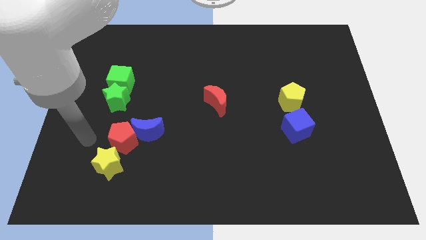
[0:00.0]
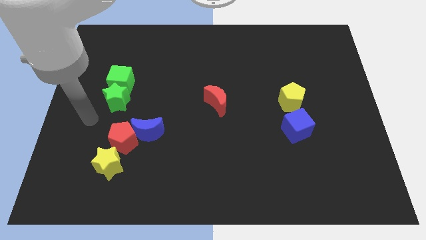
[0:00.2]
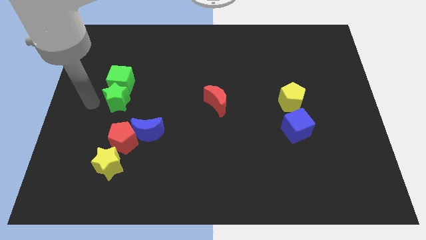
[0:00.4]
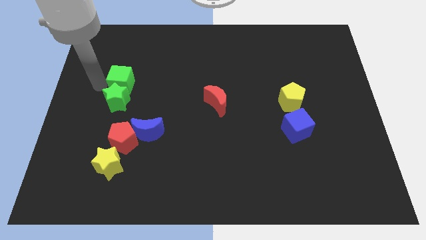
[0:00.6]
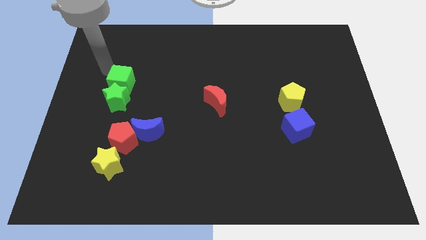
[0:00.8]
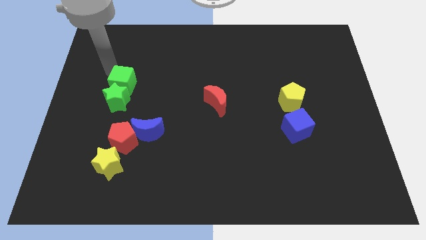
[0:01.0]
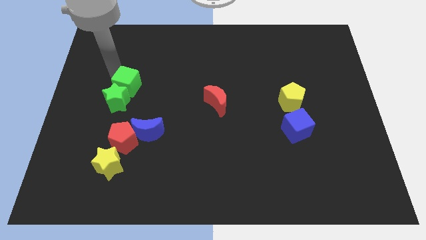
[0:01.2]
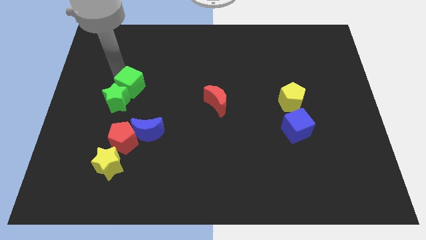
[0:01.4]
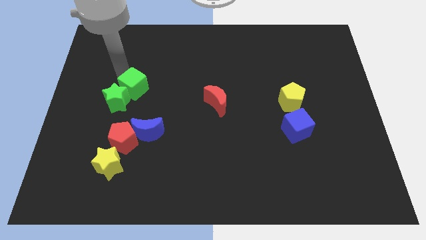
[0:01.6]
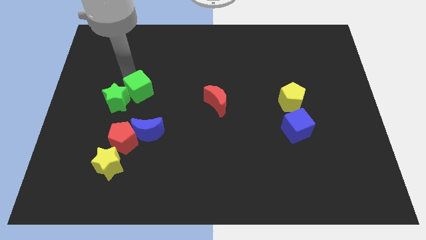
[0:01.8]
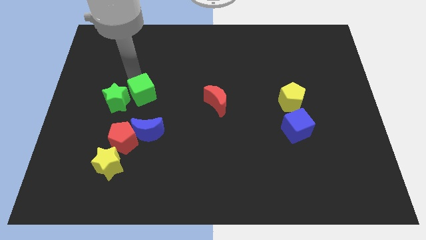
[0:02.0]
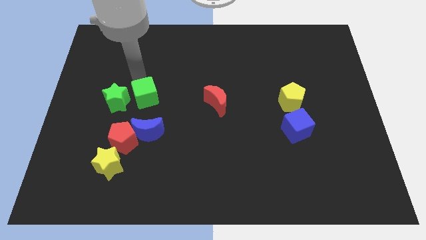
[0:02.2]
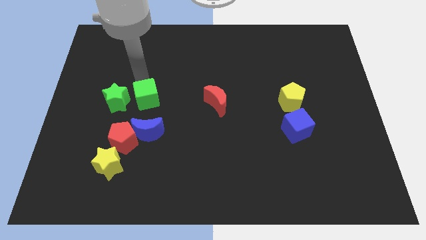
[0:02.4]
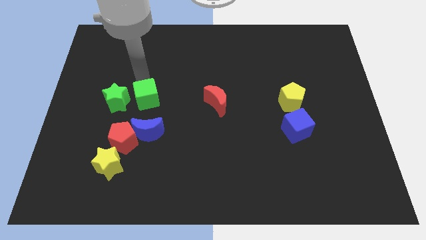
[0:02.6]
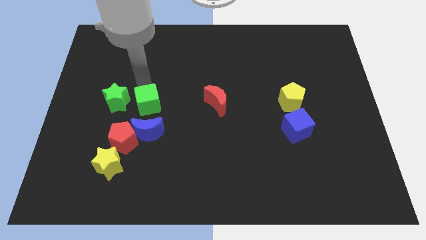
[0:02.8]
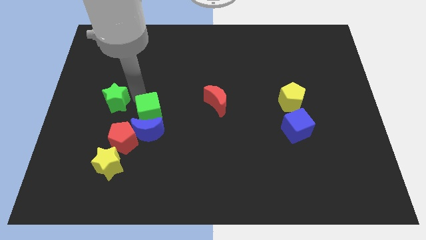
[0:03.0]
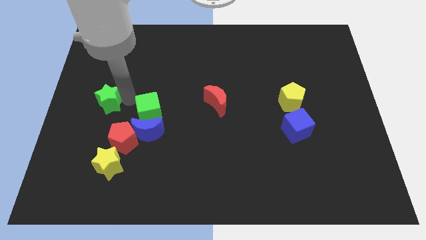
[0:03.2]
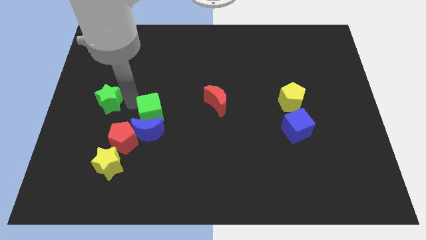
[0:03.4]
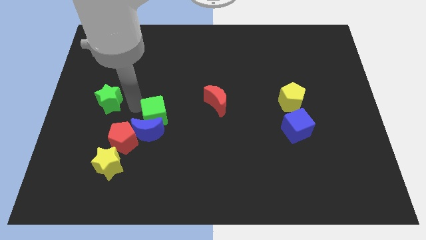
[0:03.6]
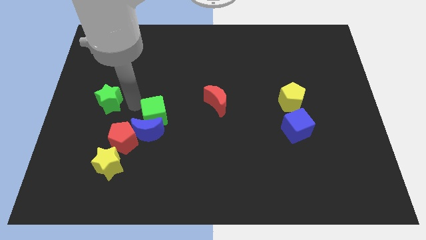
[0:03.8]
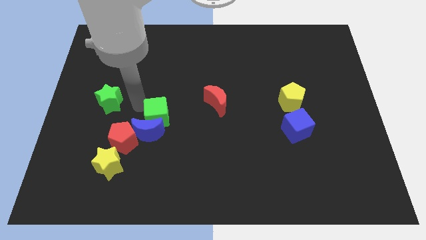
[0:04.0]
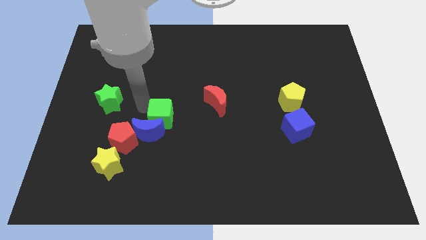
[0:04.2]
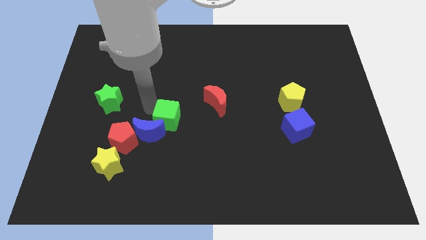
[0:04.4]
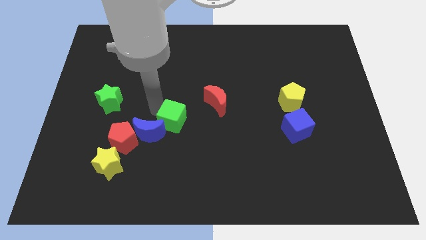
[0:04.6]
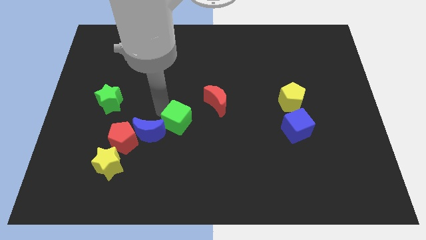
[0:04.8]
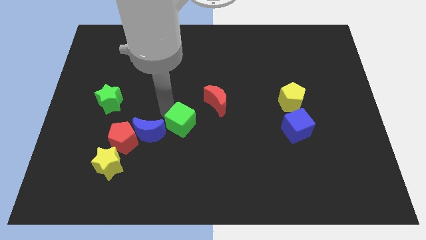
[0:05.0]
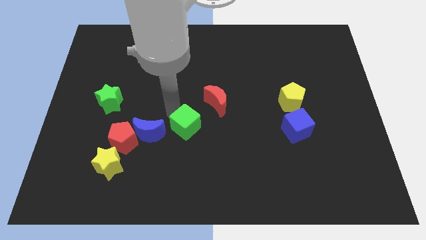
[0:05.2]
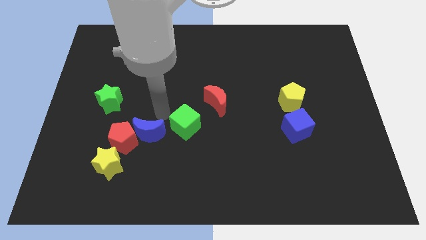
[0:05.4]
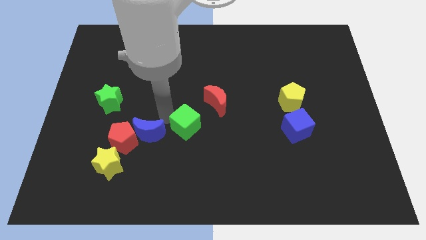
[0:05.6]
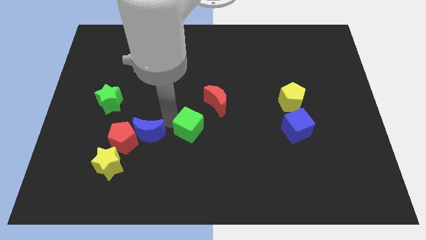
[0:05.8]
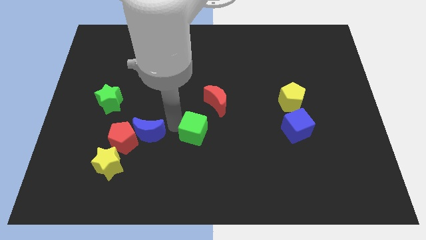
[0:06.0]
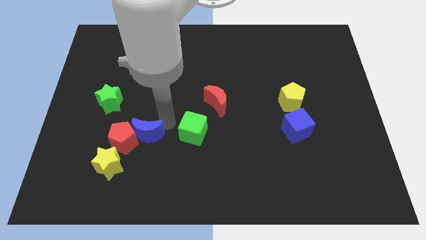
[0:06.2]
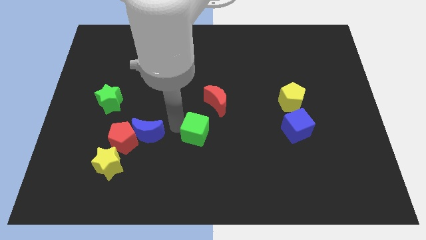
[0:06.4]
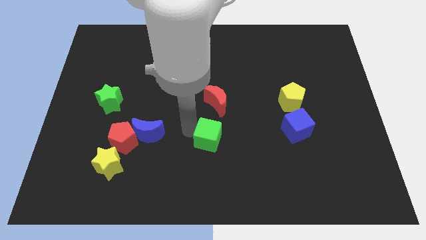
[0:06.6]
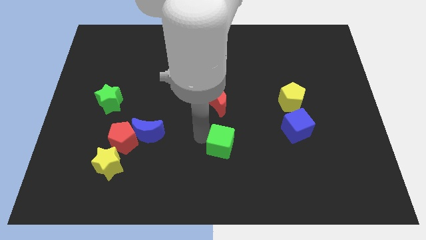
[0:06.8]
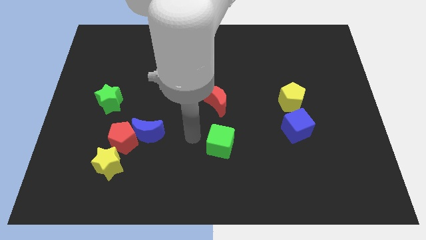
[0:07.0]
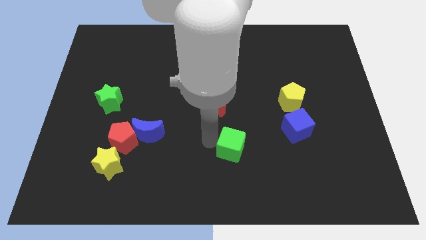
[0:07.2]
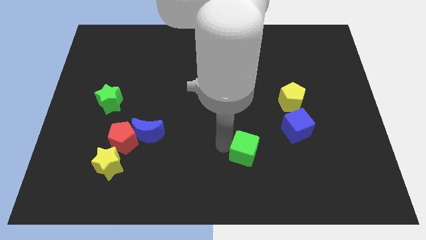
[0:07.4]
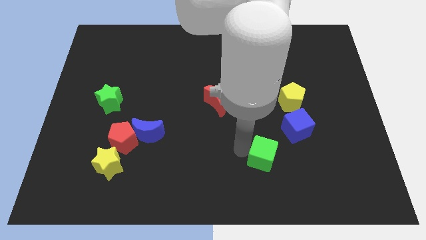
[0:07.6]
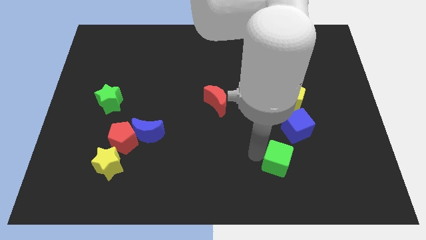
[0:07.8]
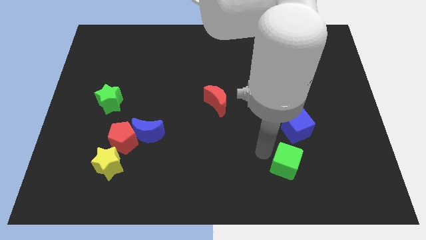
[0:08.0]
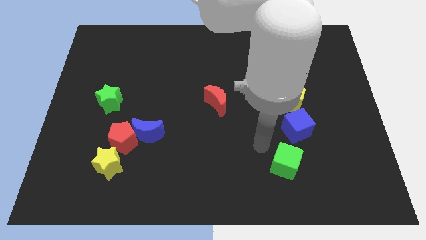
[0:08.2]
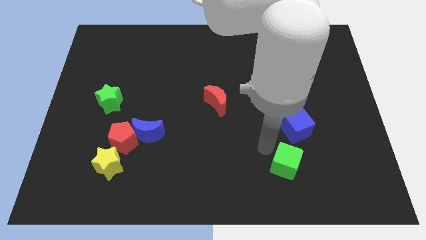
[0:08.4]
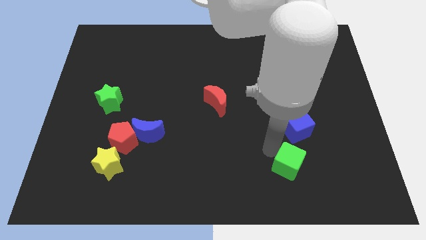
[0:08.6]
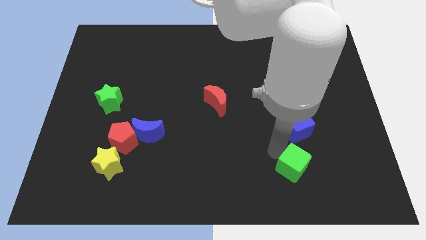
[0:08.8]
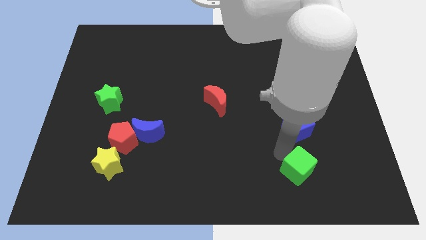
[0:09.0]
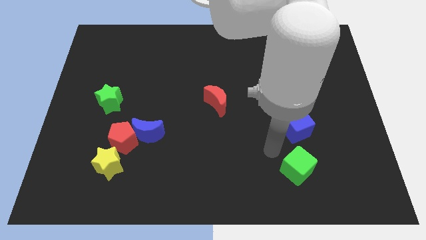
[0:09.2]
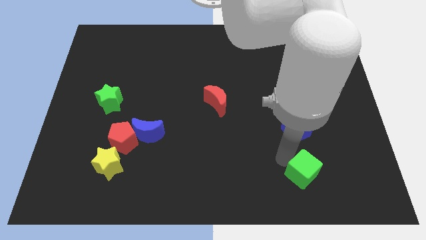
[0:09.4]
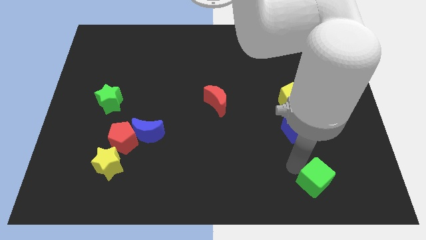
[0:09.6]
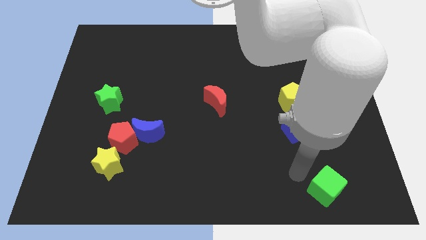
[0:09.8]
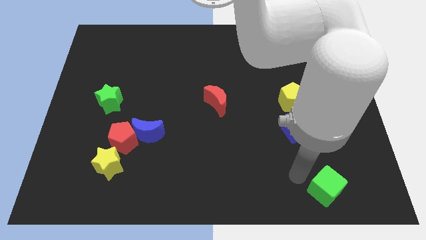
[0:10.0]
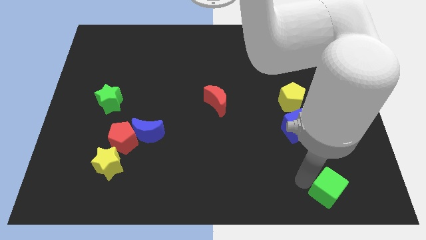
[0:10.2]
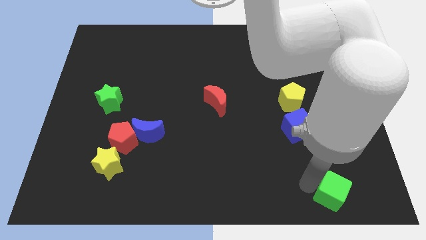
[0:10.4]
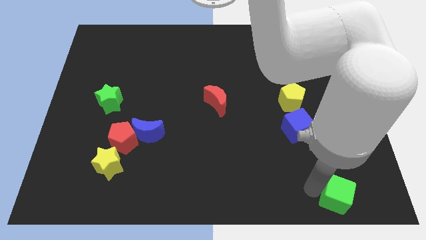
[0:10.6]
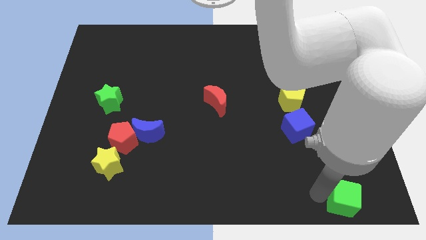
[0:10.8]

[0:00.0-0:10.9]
move the green cube to the bottom right of the board

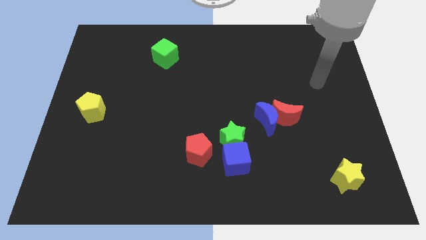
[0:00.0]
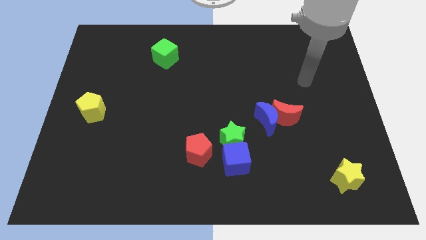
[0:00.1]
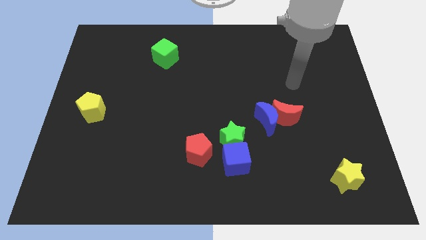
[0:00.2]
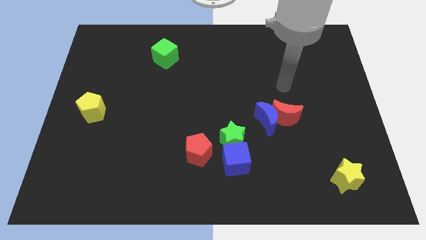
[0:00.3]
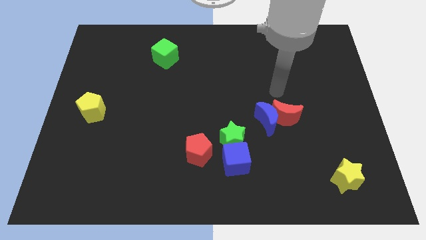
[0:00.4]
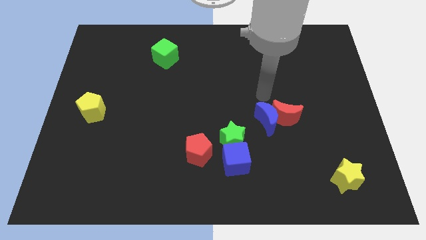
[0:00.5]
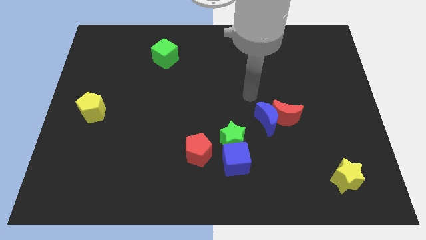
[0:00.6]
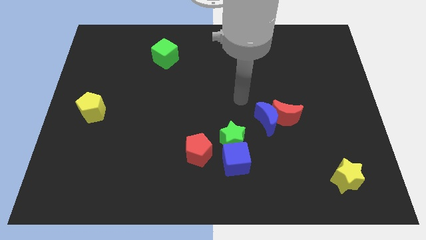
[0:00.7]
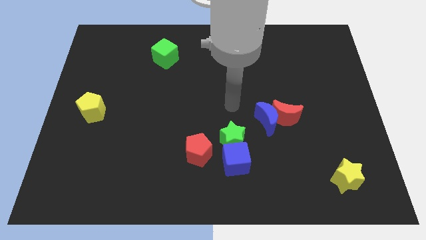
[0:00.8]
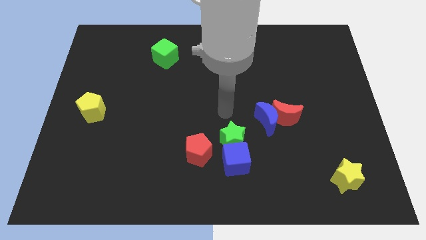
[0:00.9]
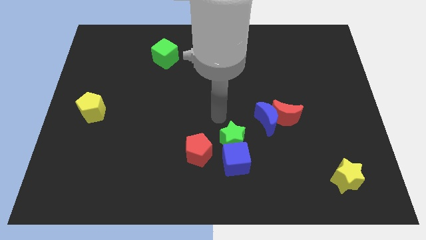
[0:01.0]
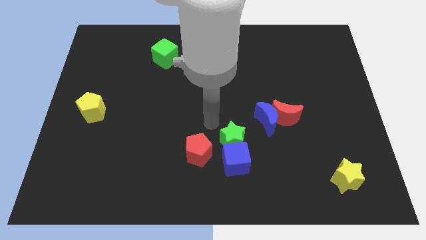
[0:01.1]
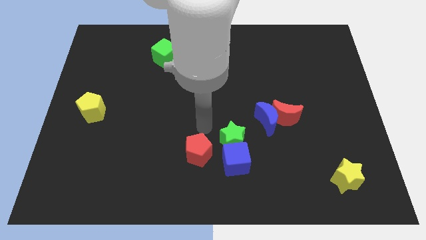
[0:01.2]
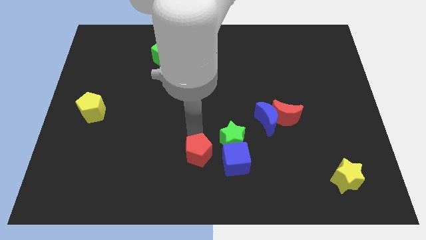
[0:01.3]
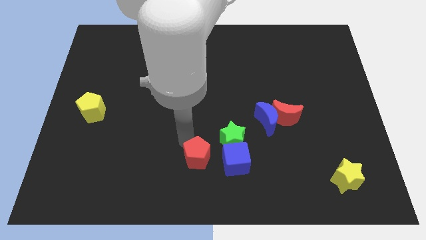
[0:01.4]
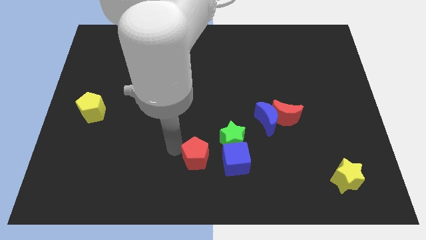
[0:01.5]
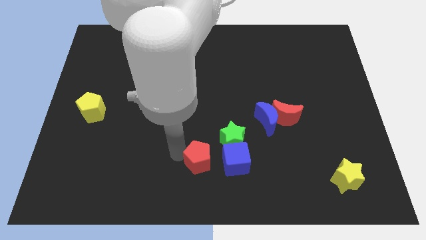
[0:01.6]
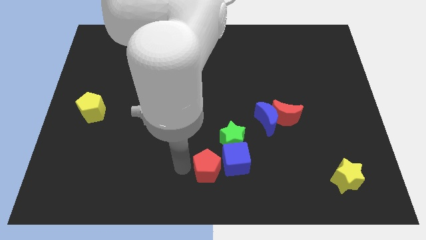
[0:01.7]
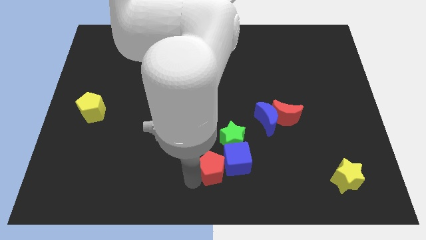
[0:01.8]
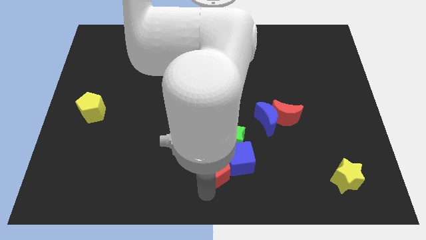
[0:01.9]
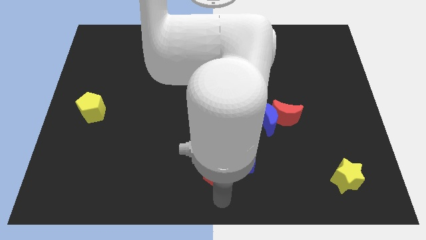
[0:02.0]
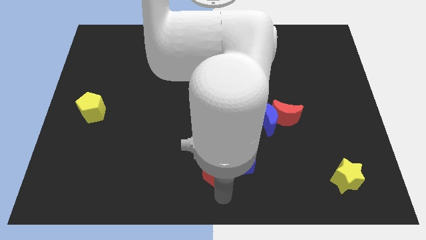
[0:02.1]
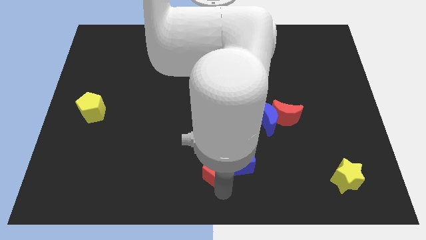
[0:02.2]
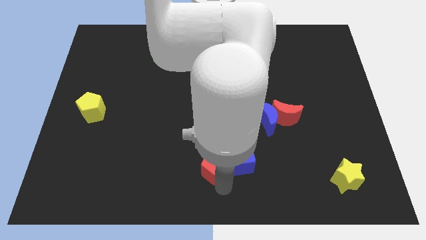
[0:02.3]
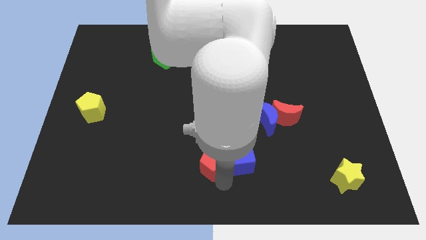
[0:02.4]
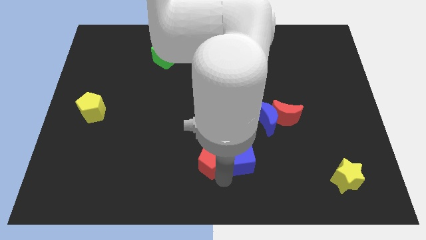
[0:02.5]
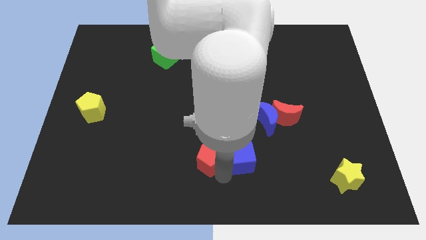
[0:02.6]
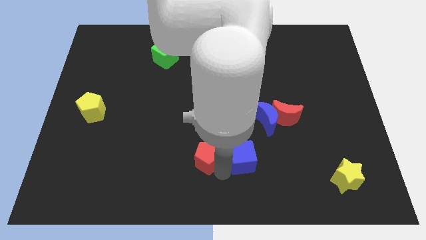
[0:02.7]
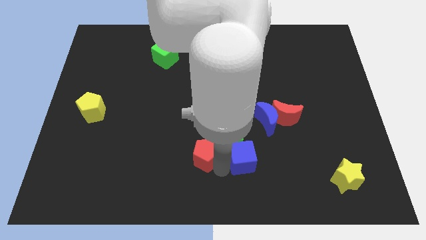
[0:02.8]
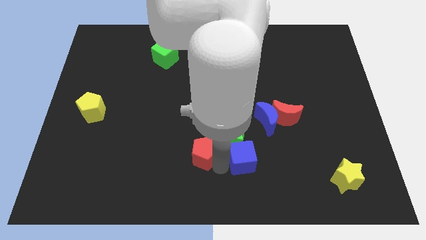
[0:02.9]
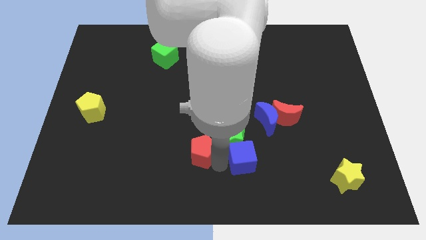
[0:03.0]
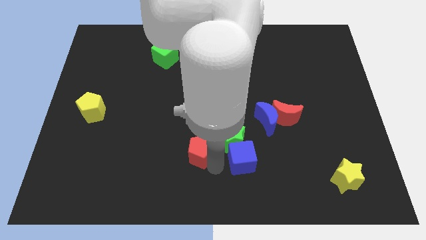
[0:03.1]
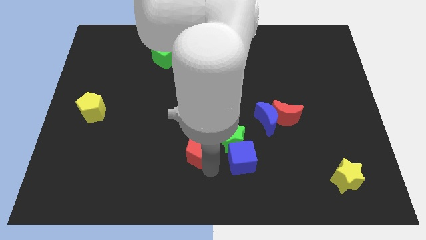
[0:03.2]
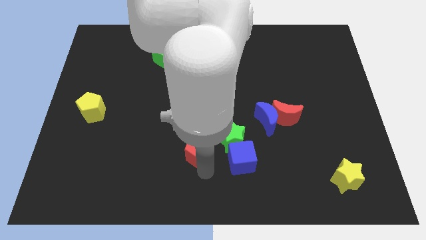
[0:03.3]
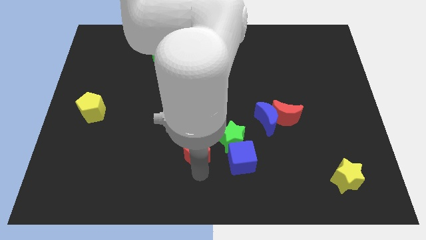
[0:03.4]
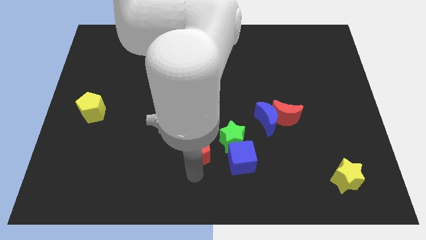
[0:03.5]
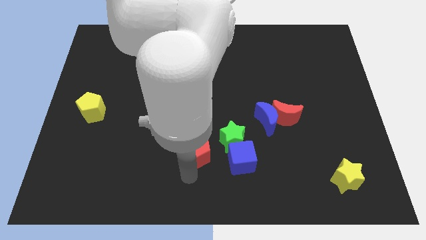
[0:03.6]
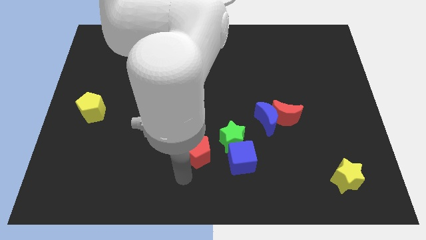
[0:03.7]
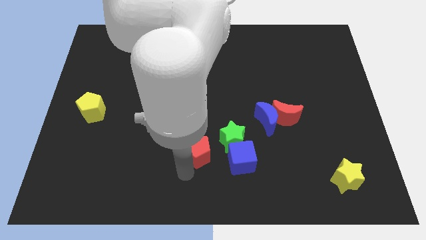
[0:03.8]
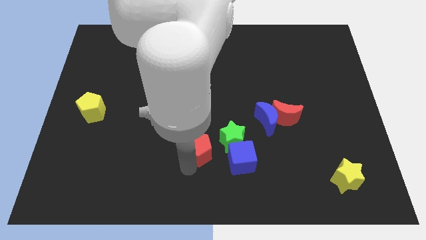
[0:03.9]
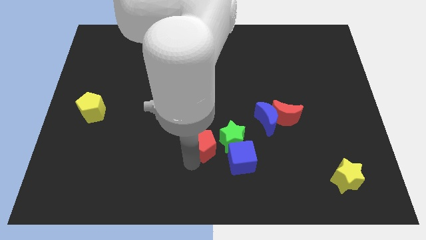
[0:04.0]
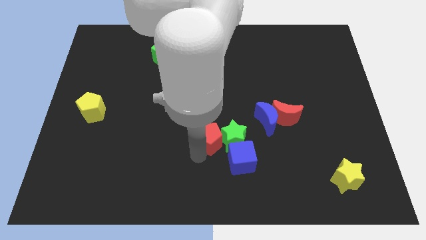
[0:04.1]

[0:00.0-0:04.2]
push the red pentagon to the middle of the board
